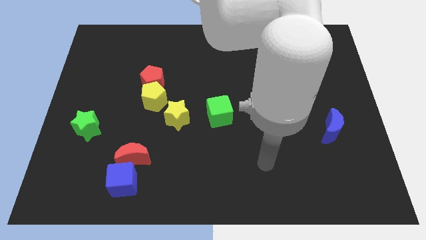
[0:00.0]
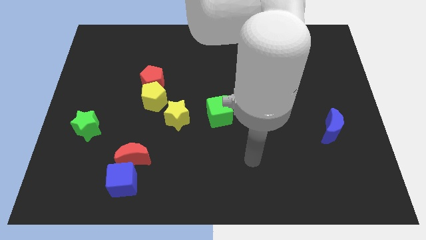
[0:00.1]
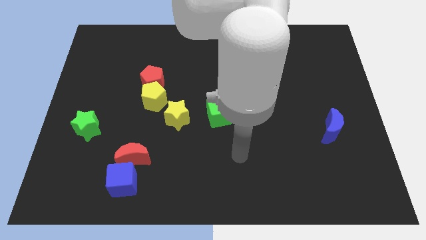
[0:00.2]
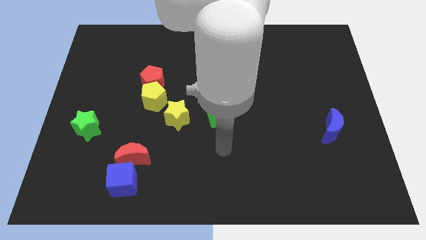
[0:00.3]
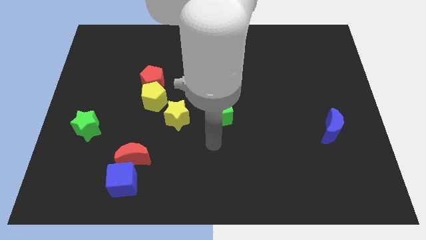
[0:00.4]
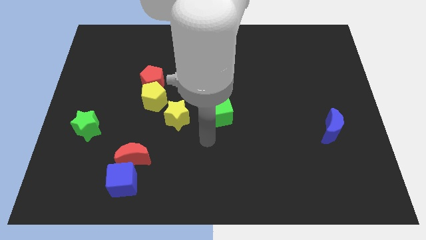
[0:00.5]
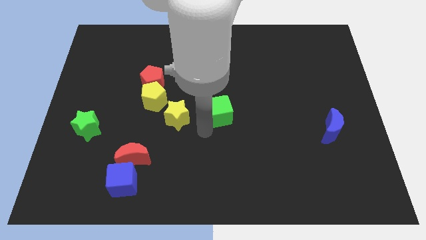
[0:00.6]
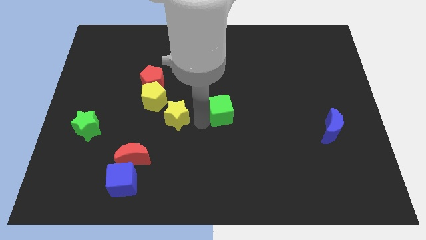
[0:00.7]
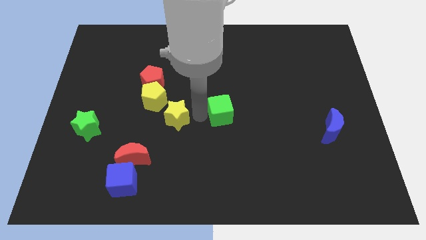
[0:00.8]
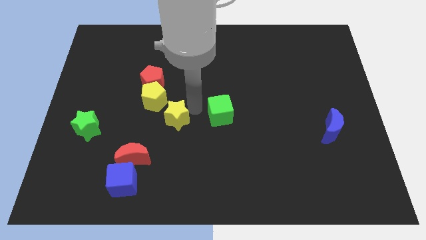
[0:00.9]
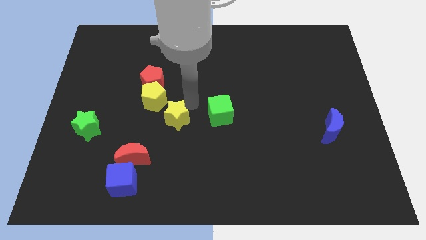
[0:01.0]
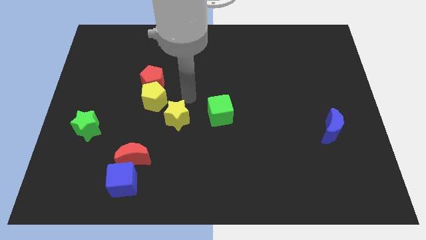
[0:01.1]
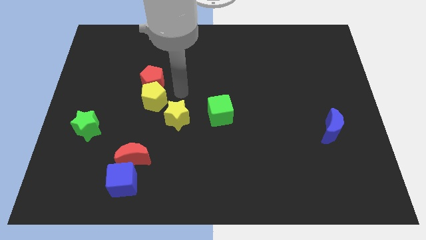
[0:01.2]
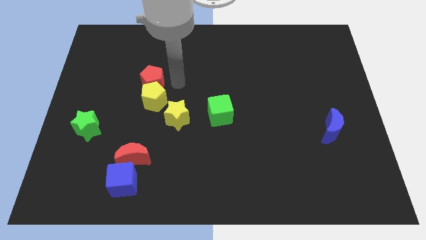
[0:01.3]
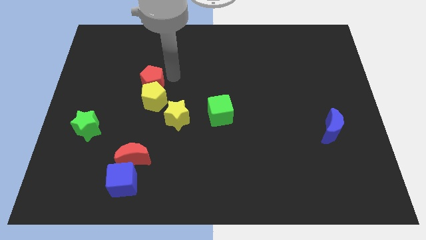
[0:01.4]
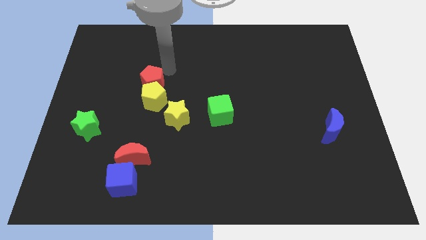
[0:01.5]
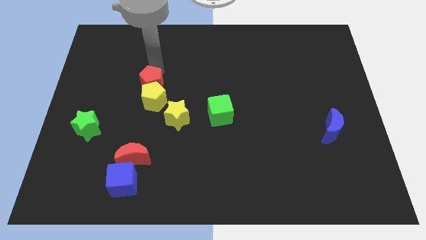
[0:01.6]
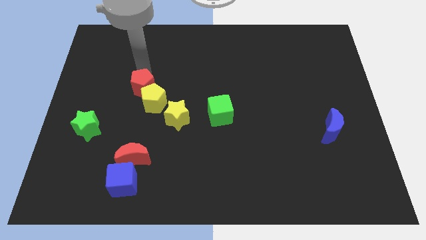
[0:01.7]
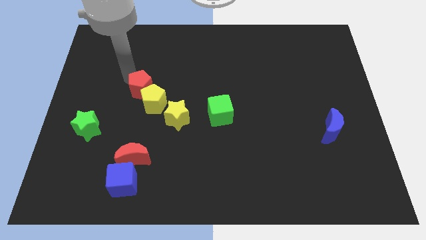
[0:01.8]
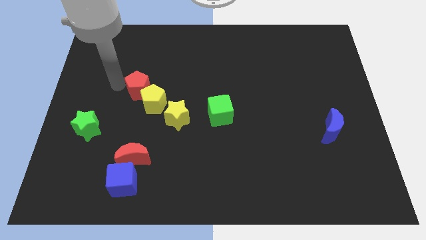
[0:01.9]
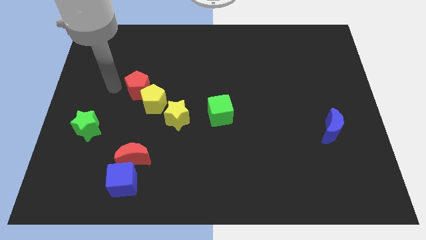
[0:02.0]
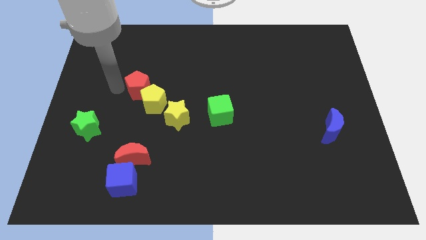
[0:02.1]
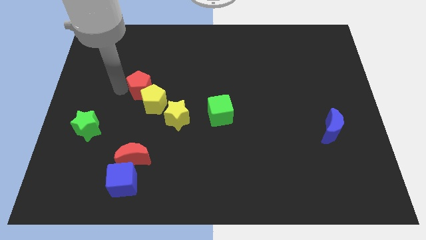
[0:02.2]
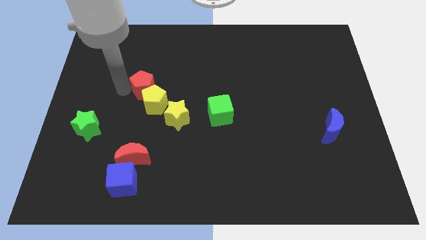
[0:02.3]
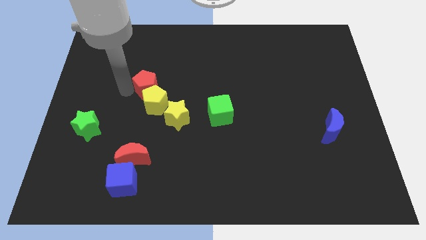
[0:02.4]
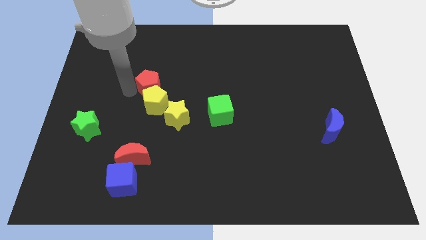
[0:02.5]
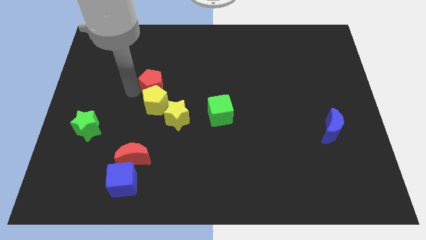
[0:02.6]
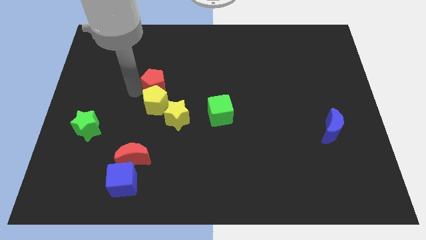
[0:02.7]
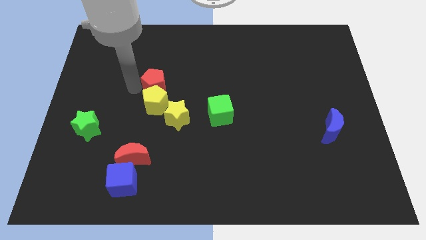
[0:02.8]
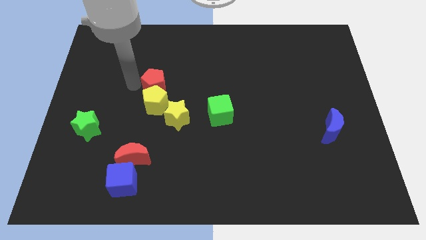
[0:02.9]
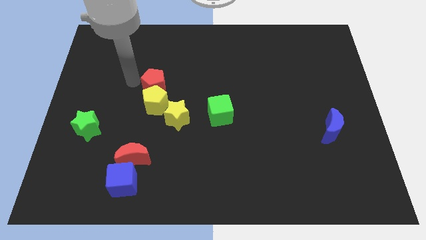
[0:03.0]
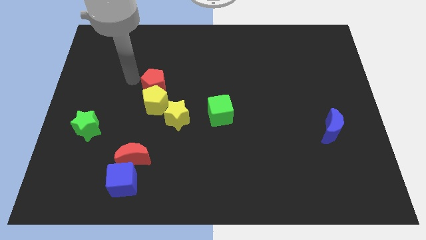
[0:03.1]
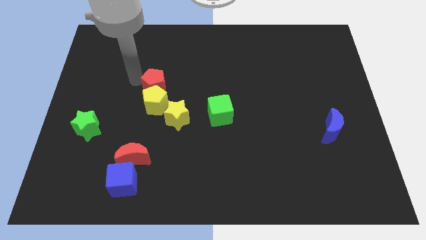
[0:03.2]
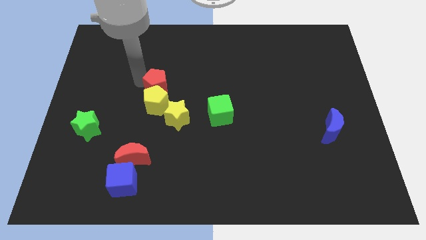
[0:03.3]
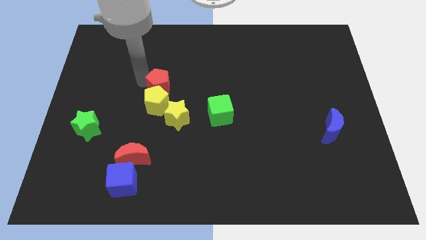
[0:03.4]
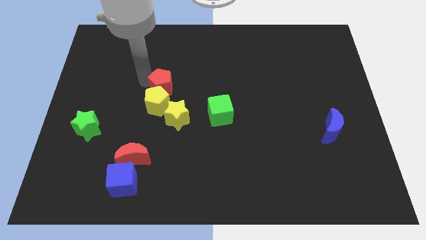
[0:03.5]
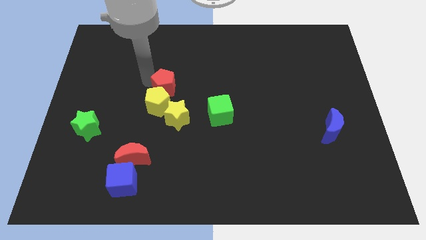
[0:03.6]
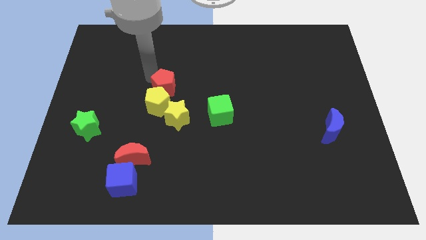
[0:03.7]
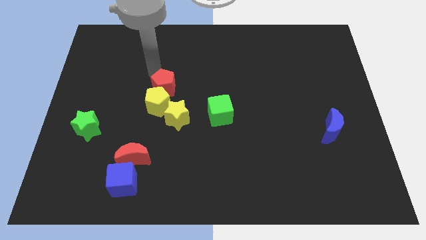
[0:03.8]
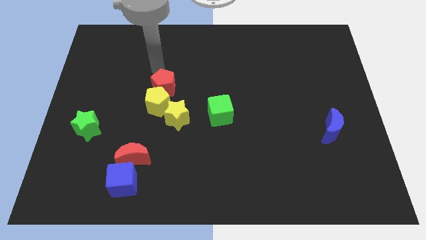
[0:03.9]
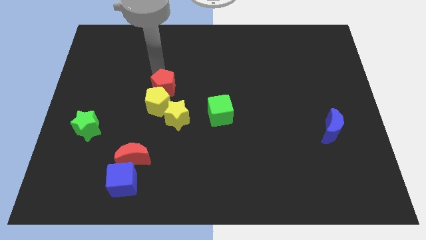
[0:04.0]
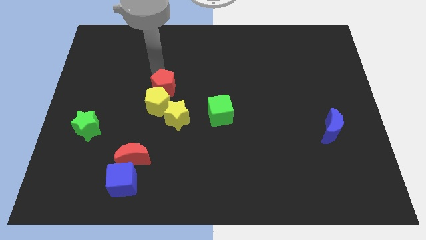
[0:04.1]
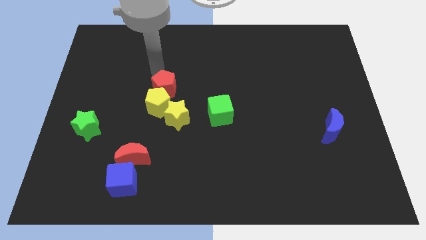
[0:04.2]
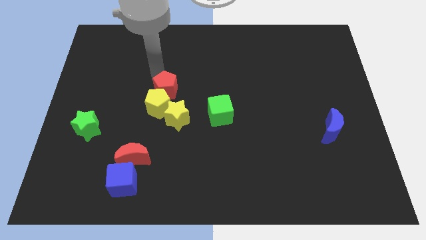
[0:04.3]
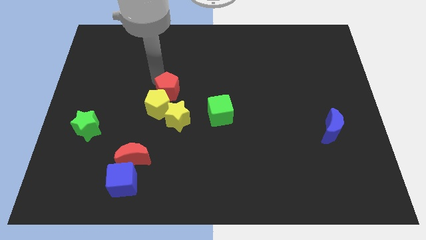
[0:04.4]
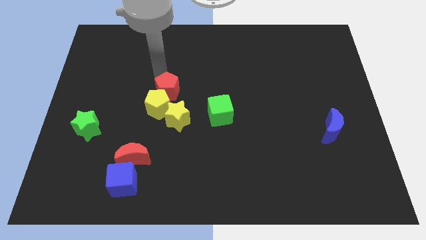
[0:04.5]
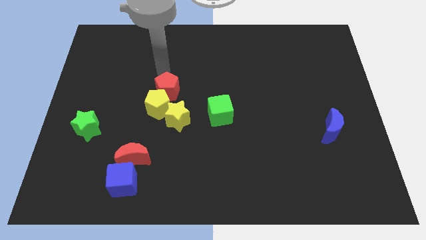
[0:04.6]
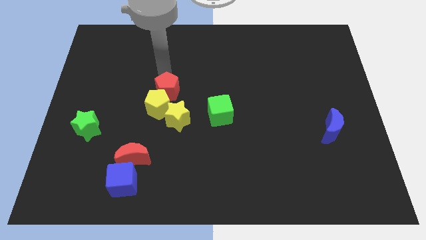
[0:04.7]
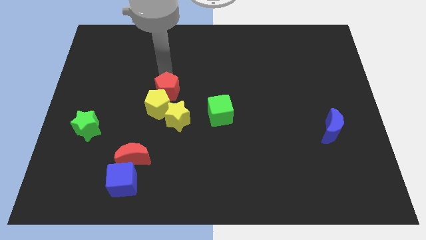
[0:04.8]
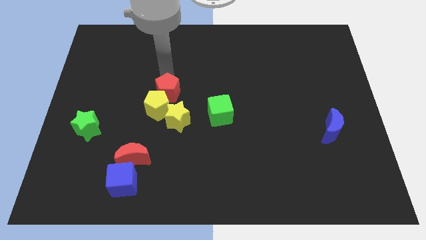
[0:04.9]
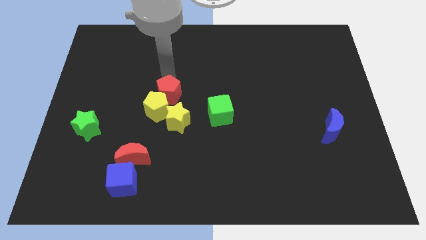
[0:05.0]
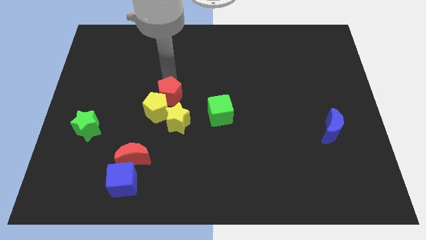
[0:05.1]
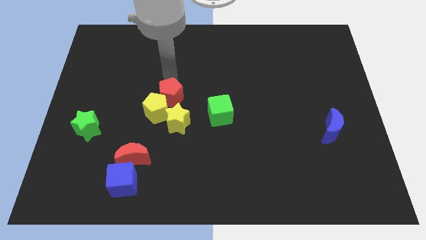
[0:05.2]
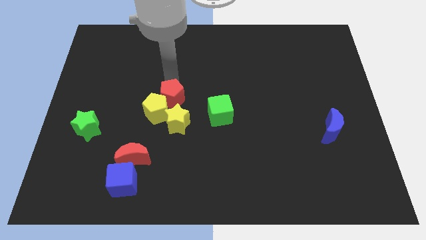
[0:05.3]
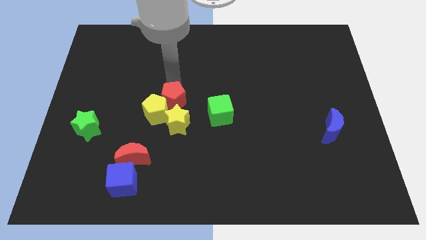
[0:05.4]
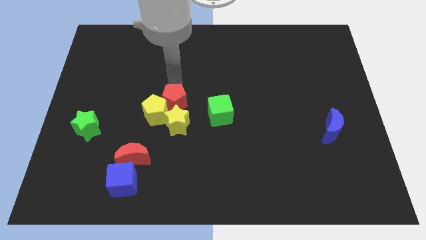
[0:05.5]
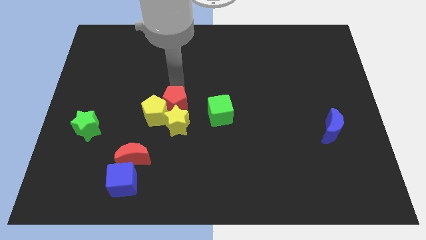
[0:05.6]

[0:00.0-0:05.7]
move the red pentagon towards the yellow star

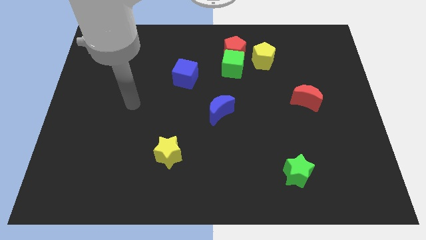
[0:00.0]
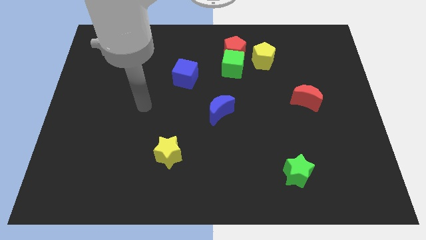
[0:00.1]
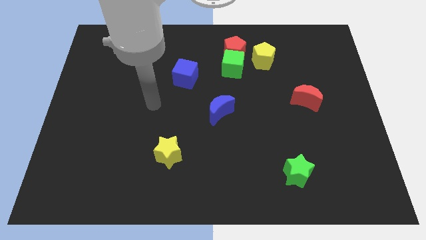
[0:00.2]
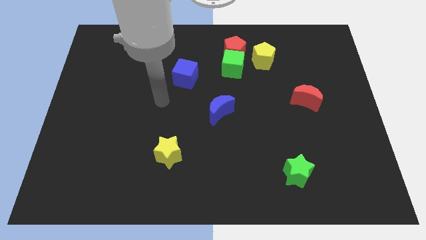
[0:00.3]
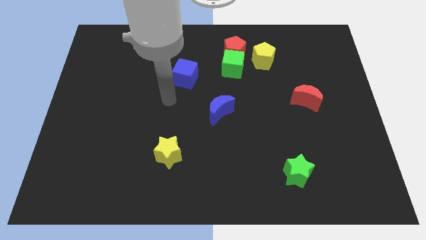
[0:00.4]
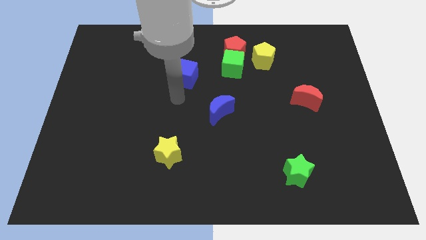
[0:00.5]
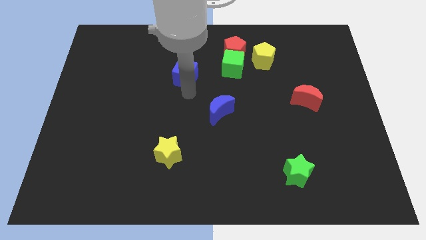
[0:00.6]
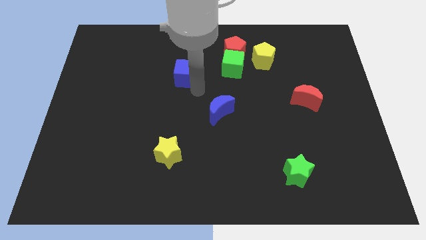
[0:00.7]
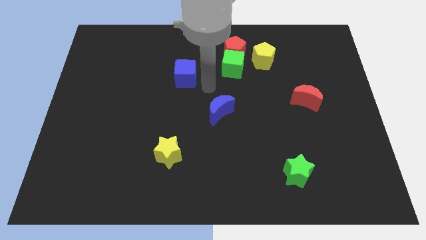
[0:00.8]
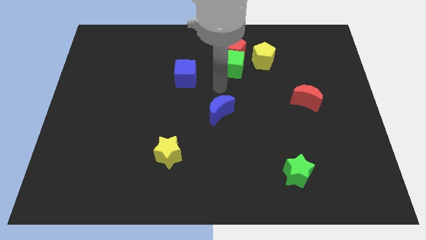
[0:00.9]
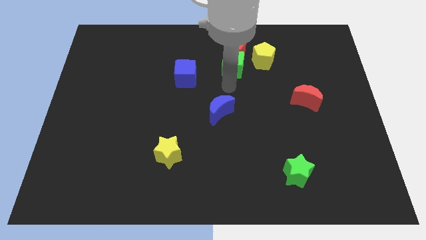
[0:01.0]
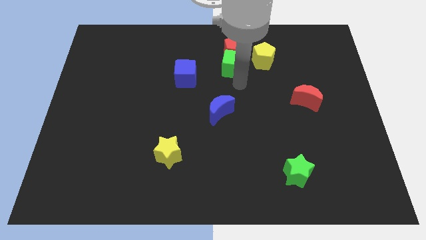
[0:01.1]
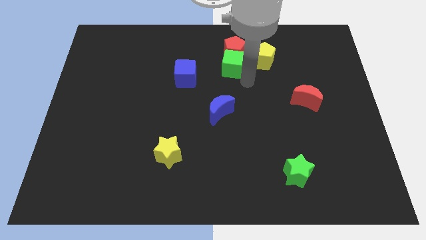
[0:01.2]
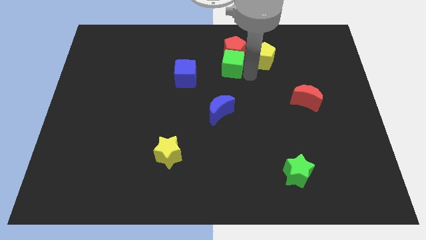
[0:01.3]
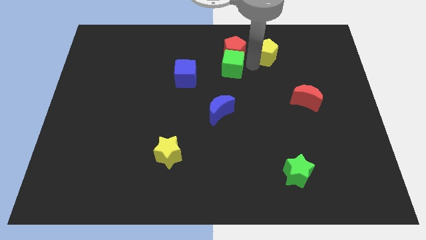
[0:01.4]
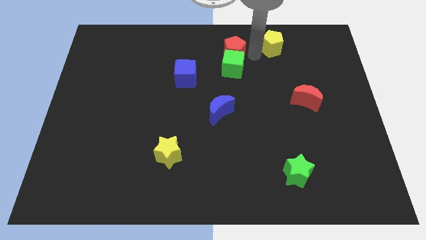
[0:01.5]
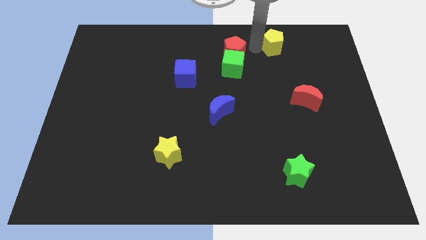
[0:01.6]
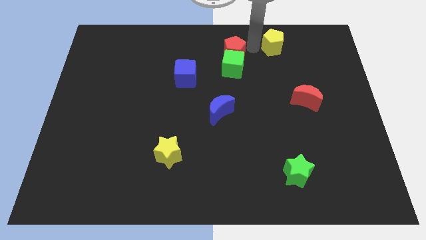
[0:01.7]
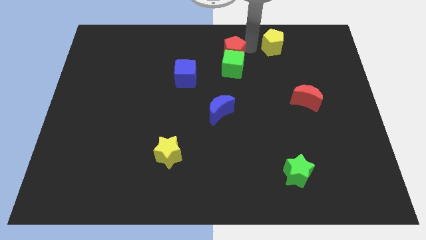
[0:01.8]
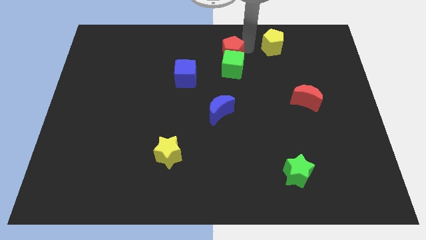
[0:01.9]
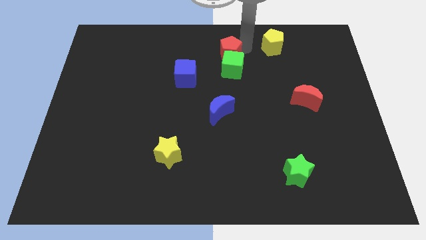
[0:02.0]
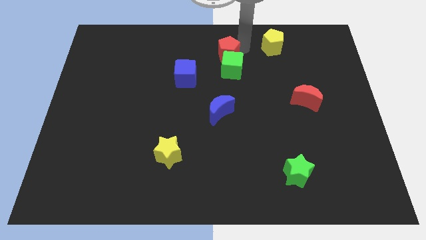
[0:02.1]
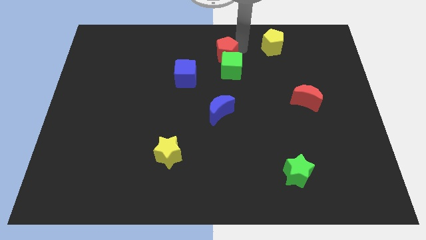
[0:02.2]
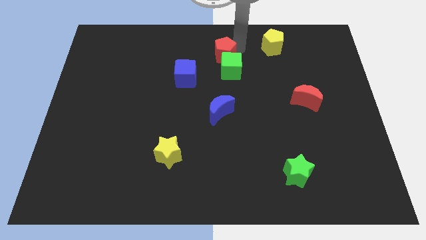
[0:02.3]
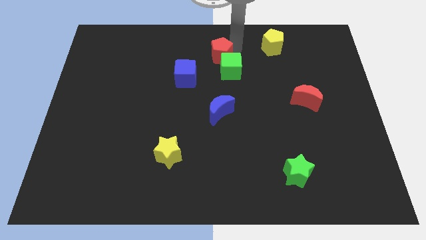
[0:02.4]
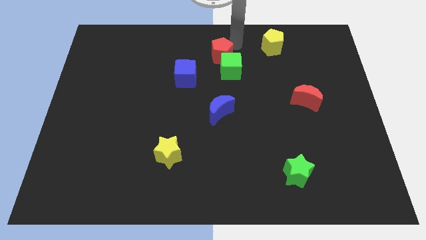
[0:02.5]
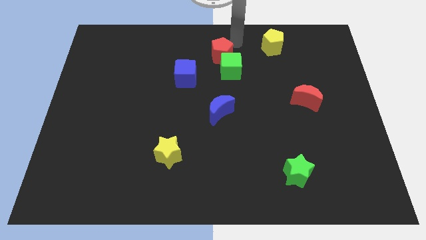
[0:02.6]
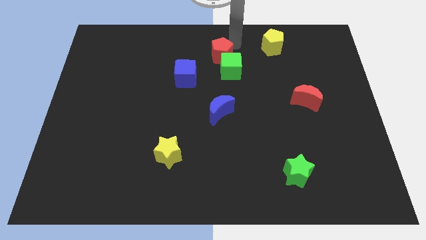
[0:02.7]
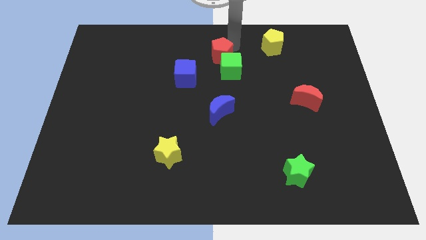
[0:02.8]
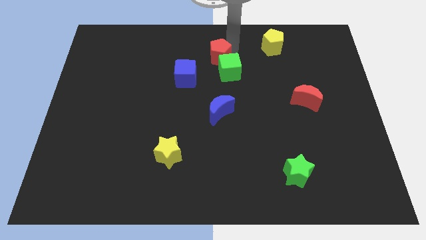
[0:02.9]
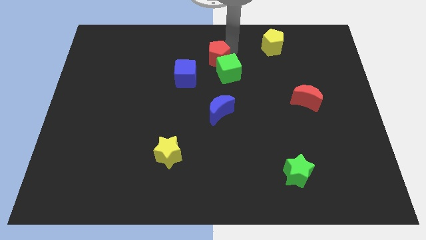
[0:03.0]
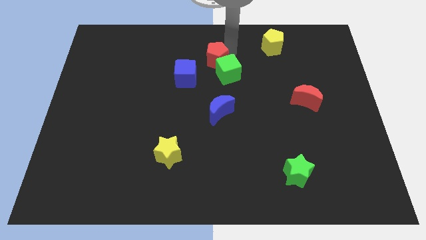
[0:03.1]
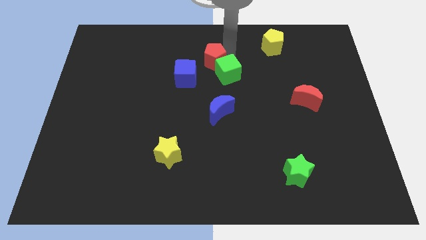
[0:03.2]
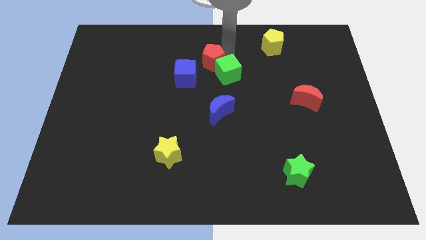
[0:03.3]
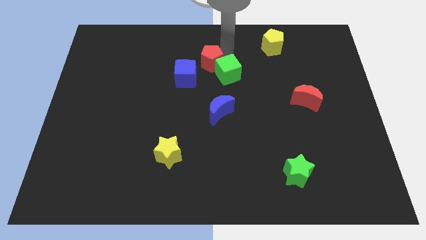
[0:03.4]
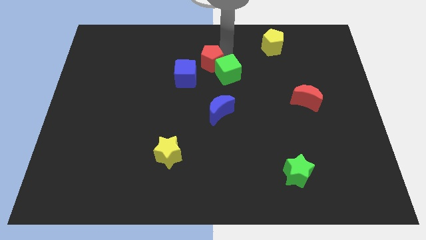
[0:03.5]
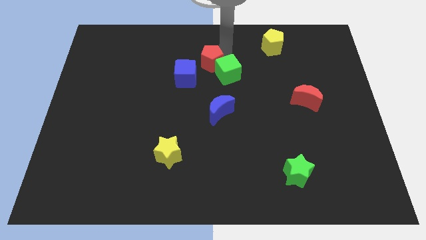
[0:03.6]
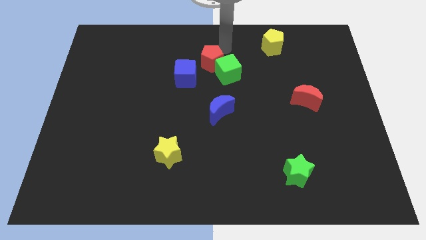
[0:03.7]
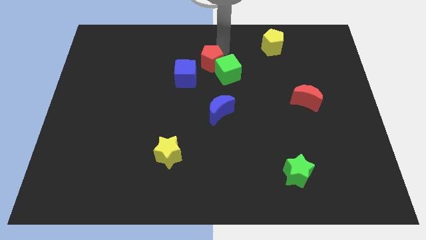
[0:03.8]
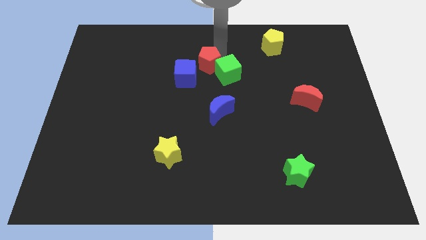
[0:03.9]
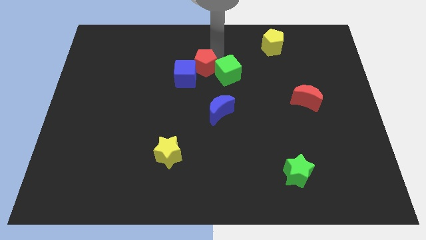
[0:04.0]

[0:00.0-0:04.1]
put the red pentagon close to the blue cube
